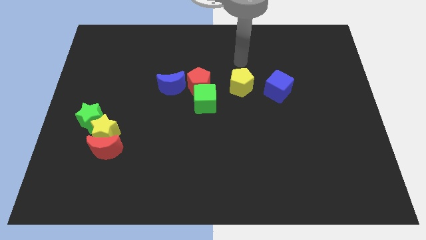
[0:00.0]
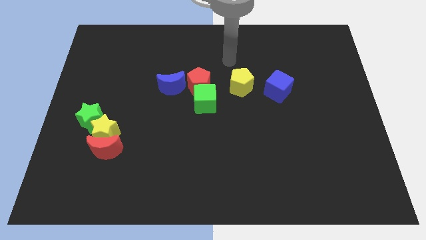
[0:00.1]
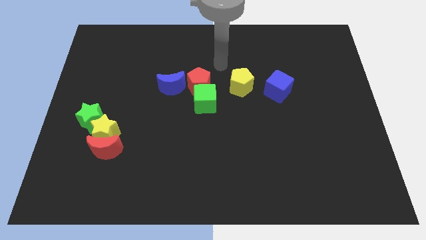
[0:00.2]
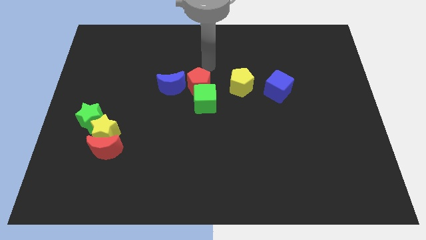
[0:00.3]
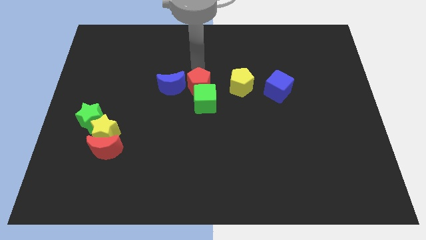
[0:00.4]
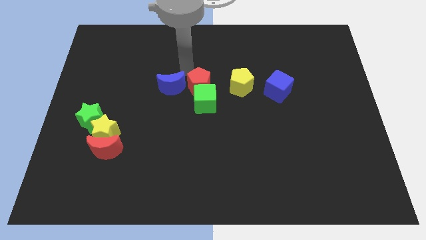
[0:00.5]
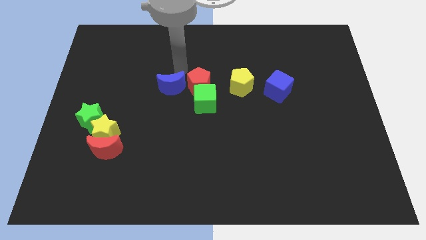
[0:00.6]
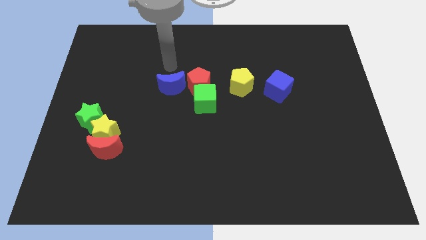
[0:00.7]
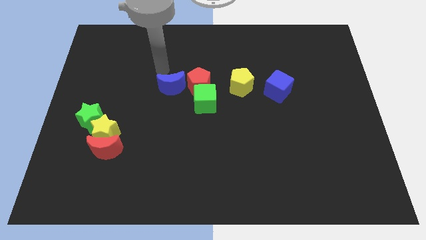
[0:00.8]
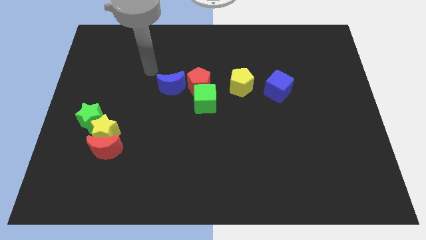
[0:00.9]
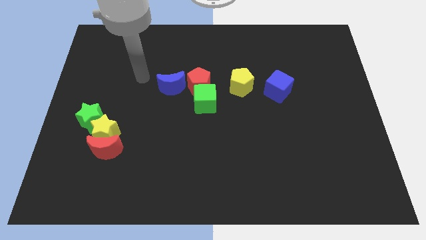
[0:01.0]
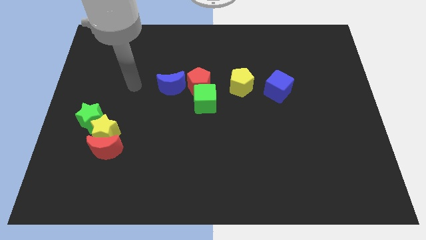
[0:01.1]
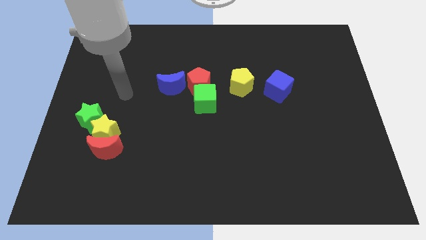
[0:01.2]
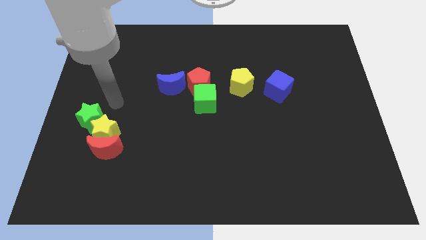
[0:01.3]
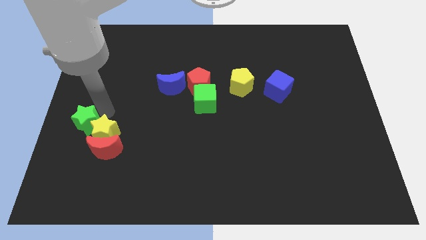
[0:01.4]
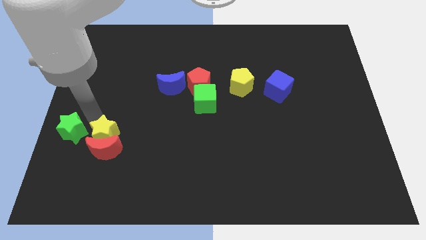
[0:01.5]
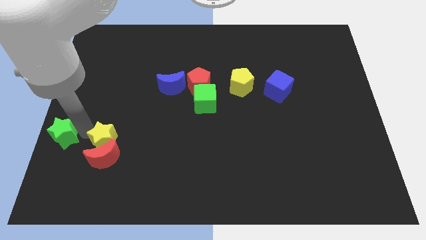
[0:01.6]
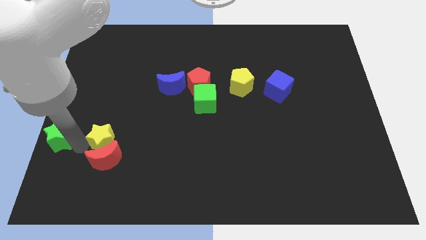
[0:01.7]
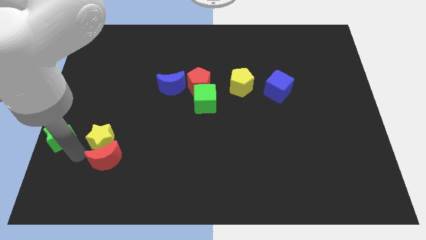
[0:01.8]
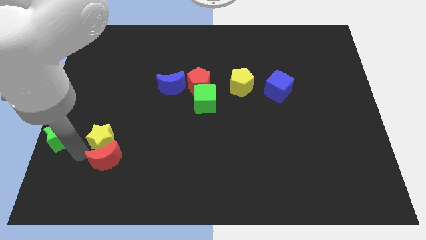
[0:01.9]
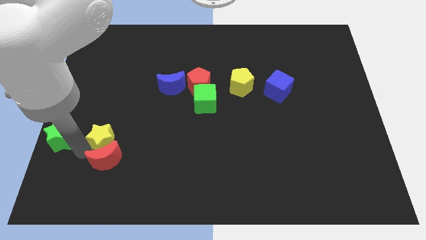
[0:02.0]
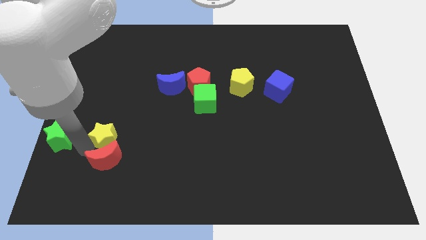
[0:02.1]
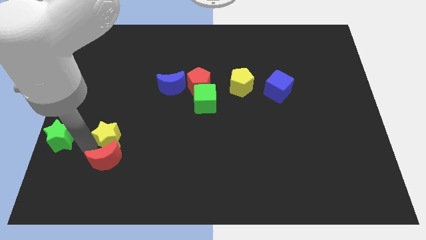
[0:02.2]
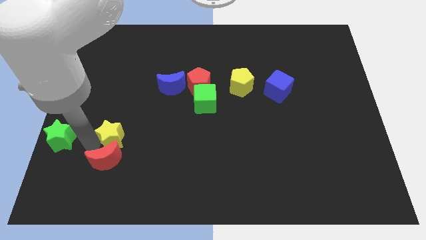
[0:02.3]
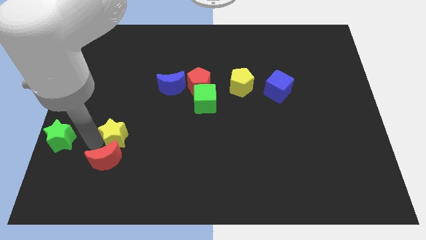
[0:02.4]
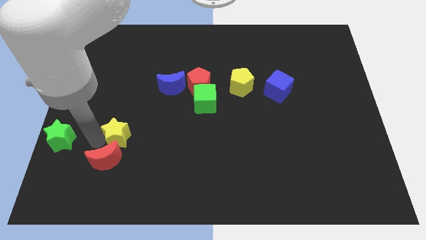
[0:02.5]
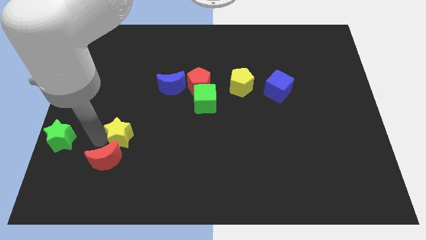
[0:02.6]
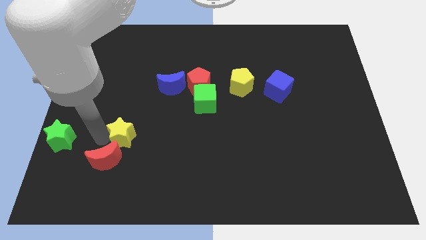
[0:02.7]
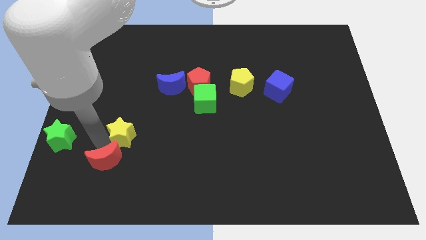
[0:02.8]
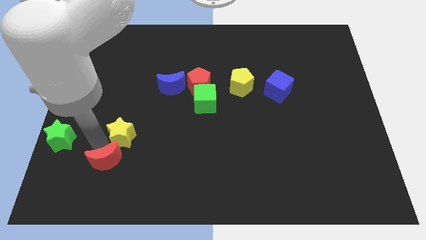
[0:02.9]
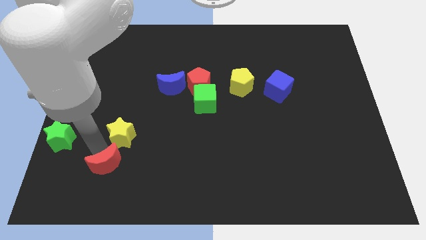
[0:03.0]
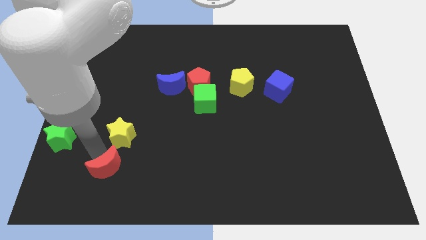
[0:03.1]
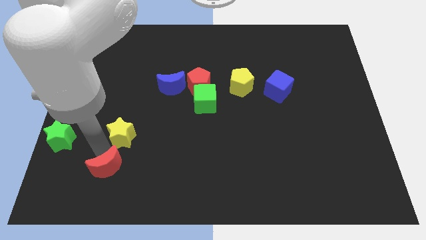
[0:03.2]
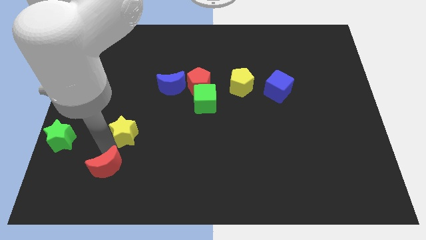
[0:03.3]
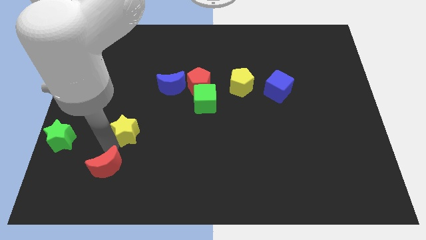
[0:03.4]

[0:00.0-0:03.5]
pull the yellow star apart from the red moon and green star

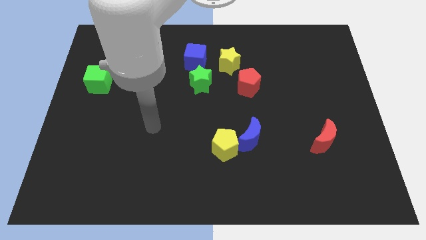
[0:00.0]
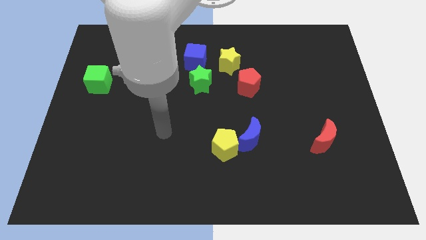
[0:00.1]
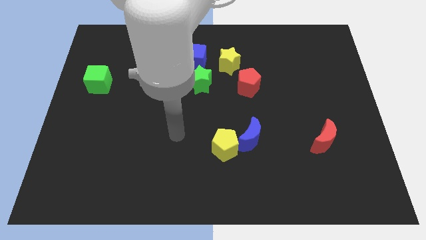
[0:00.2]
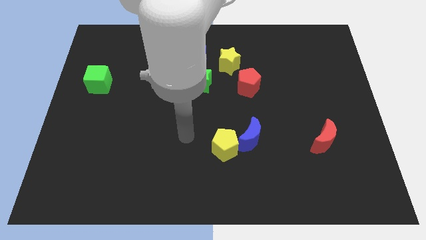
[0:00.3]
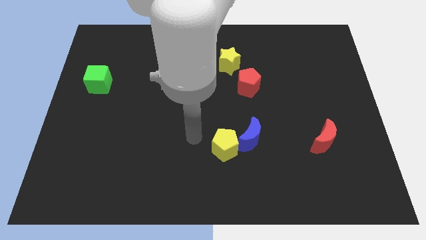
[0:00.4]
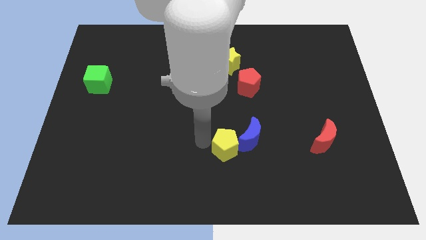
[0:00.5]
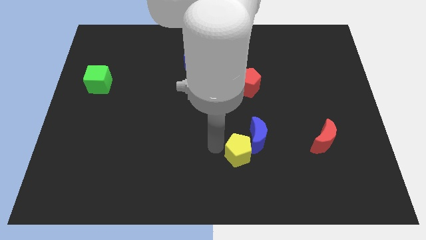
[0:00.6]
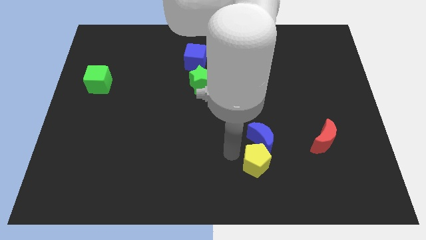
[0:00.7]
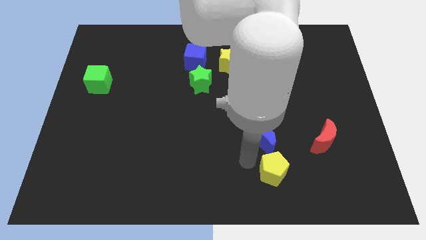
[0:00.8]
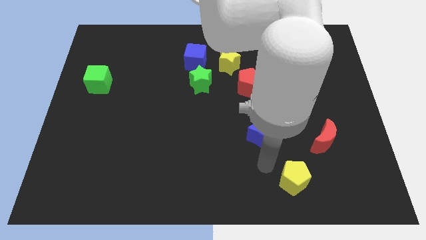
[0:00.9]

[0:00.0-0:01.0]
move the blue moon away from the yellow pentagon

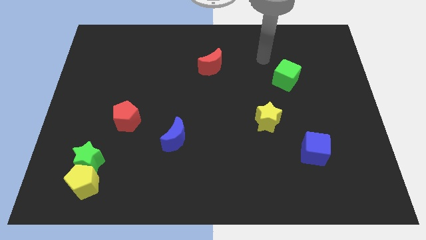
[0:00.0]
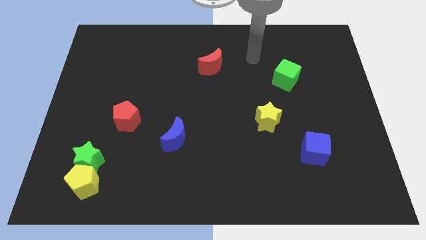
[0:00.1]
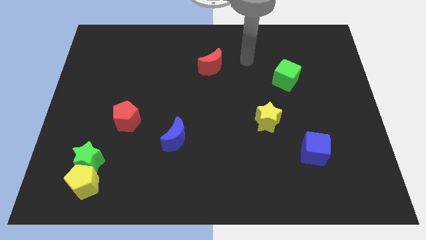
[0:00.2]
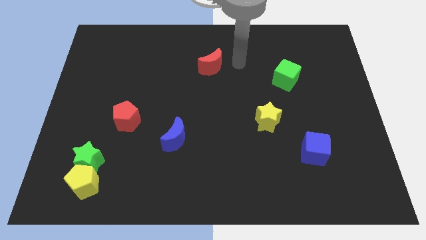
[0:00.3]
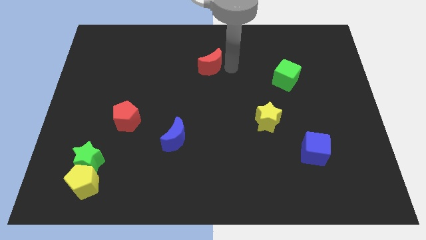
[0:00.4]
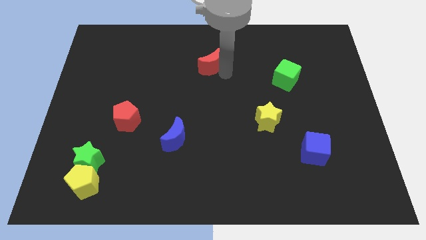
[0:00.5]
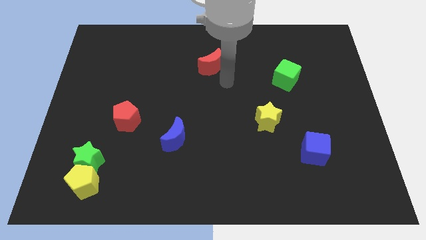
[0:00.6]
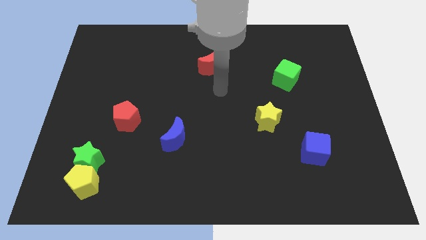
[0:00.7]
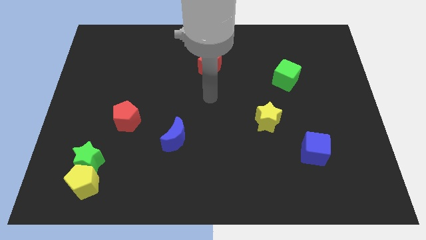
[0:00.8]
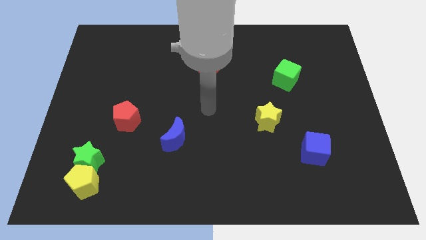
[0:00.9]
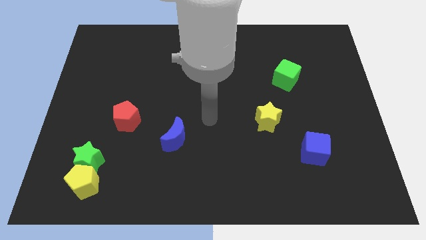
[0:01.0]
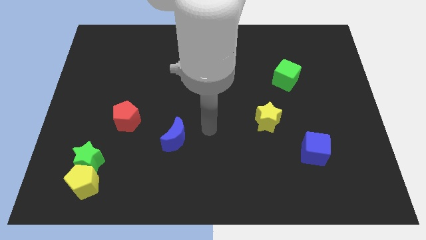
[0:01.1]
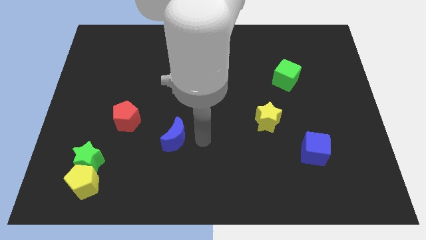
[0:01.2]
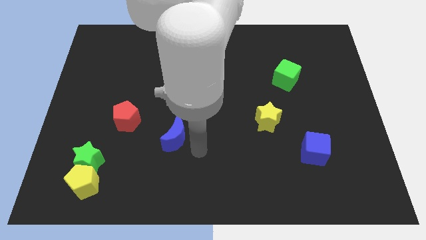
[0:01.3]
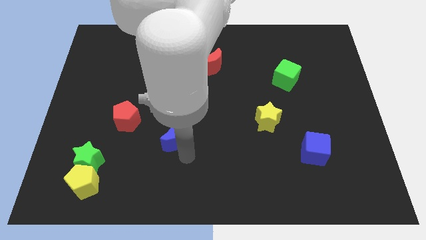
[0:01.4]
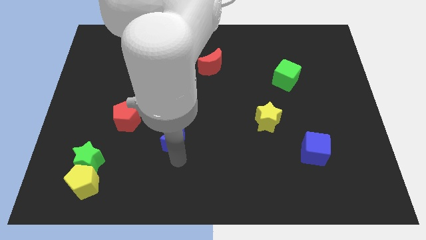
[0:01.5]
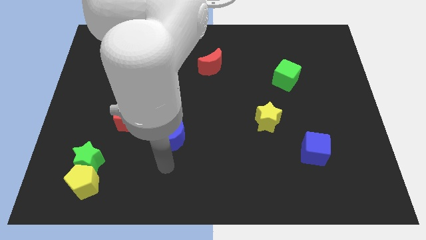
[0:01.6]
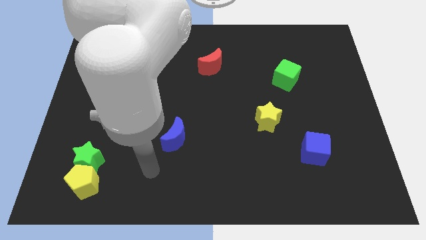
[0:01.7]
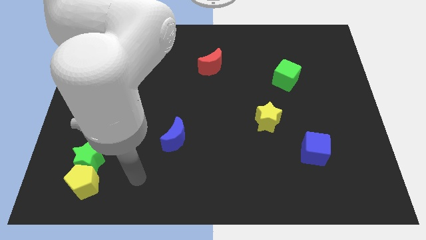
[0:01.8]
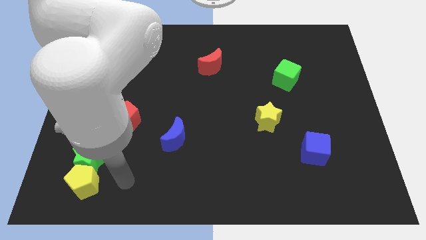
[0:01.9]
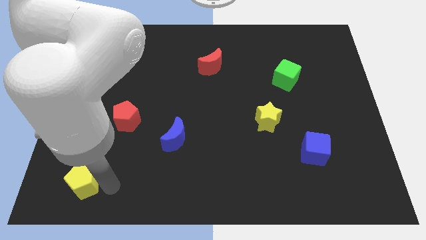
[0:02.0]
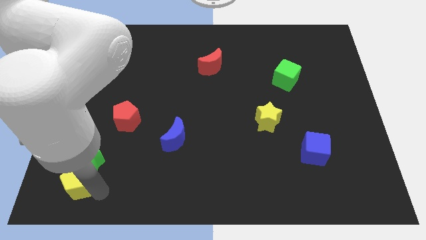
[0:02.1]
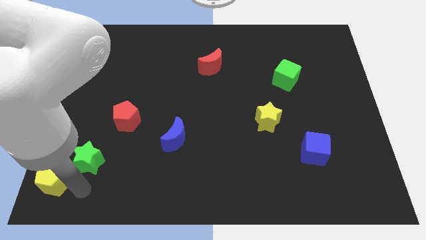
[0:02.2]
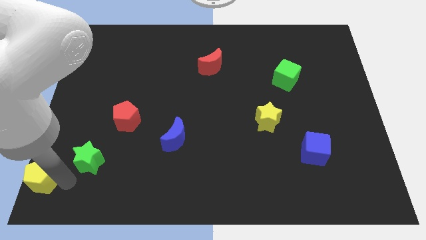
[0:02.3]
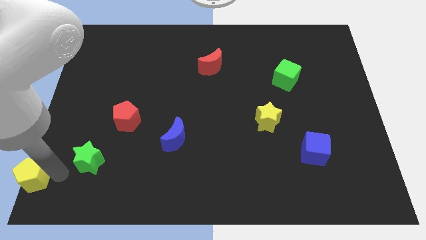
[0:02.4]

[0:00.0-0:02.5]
pull the green star apart from the yellow pentagon

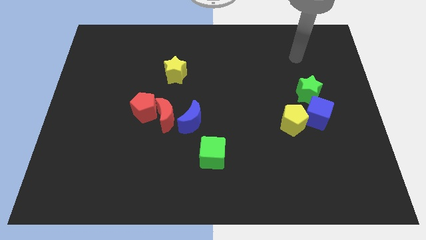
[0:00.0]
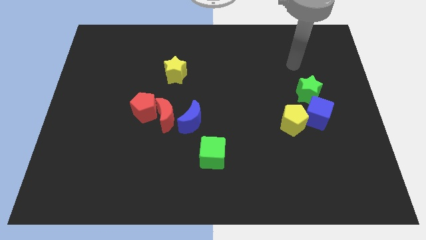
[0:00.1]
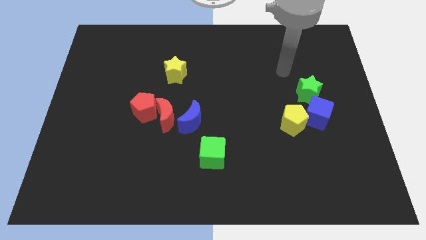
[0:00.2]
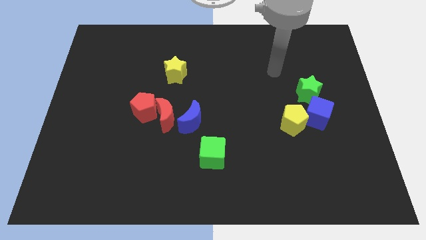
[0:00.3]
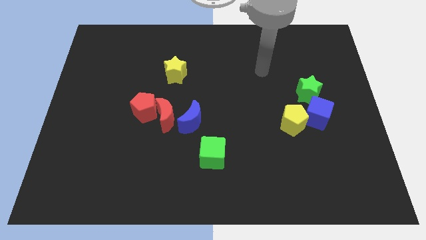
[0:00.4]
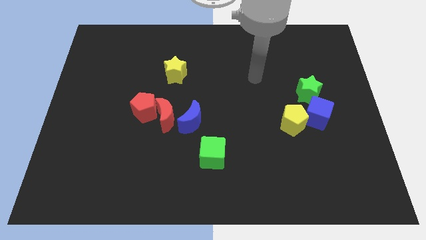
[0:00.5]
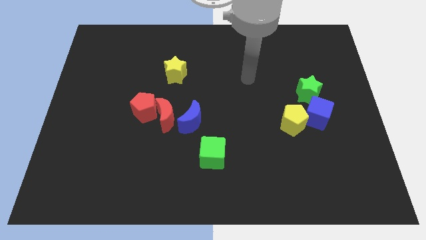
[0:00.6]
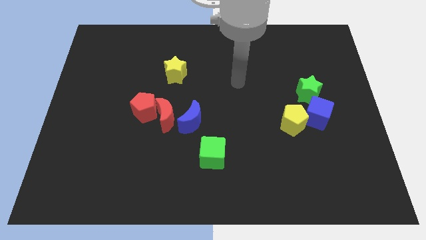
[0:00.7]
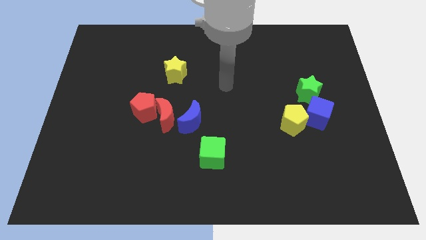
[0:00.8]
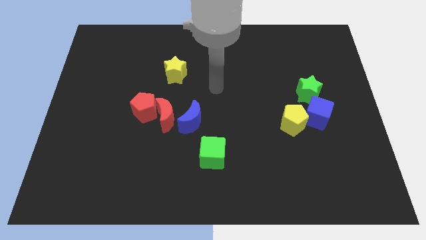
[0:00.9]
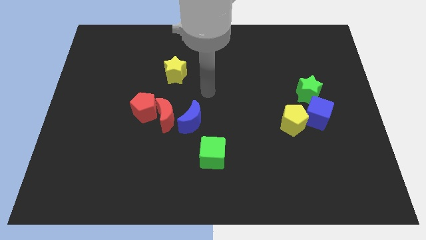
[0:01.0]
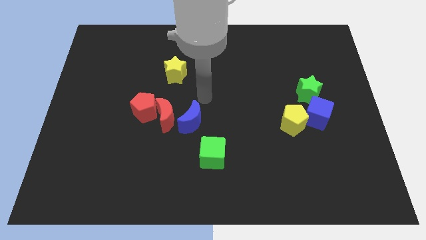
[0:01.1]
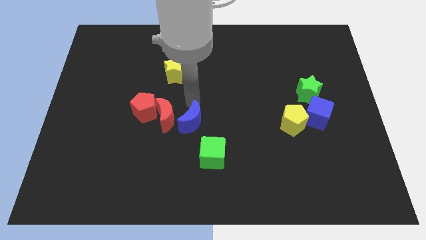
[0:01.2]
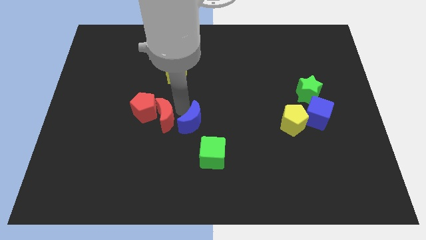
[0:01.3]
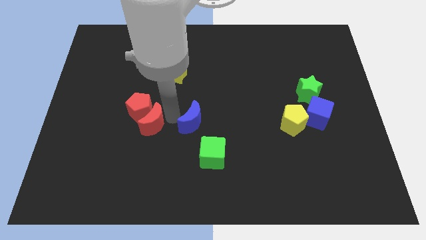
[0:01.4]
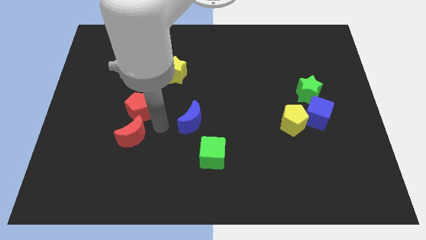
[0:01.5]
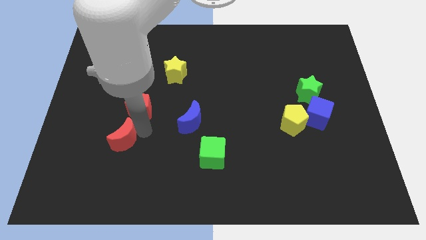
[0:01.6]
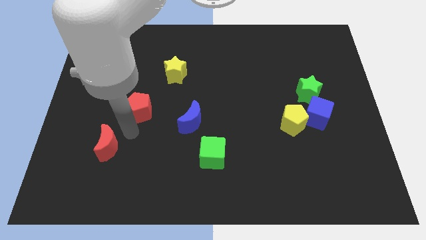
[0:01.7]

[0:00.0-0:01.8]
move the red pentagon away from the red moon

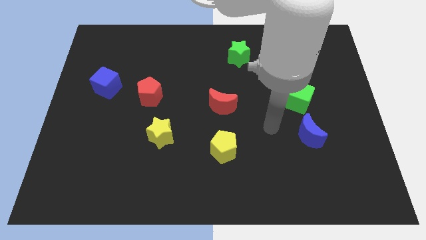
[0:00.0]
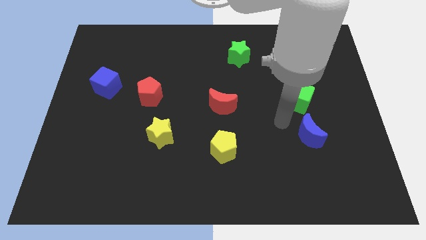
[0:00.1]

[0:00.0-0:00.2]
separate the blue moon from the green cube

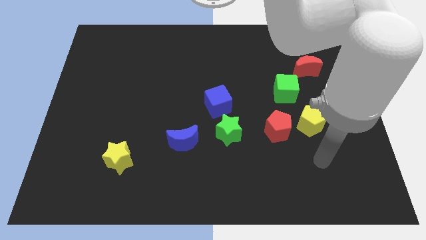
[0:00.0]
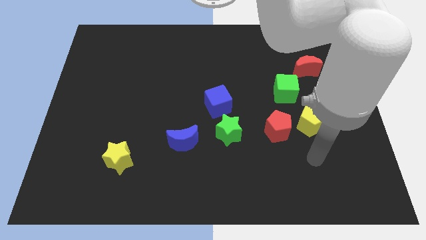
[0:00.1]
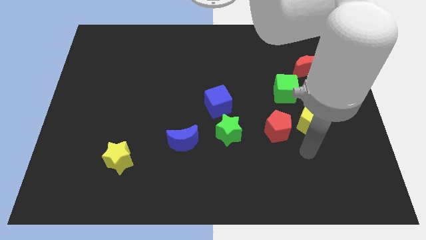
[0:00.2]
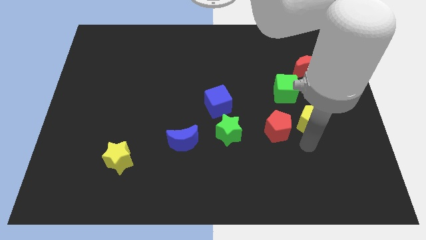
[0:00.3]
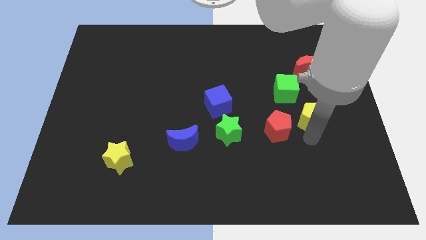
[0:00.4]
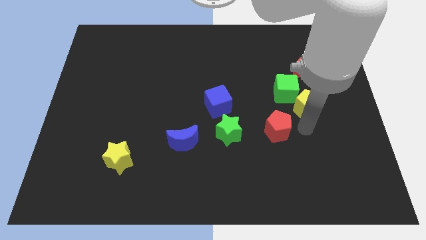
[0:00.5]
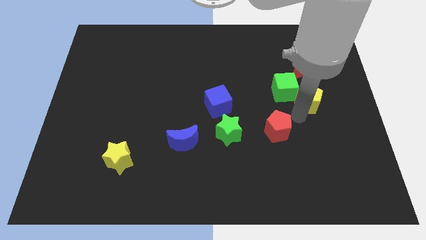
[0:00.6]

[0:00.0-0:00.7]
pull the red pentagon apart from the yellow pentagon
